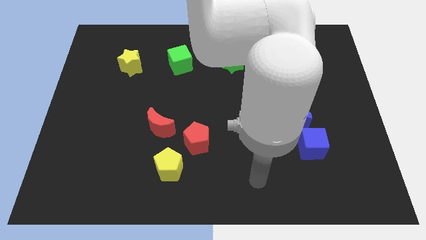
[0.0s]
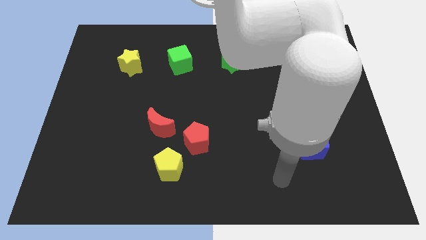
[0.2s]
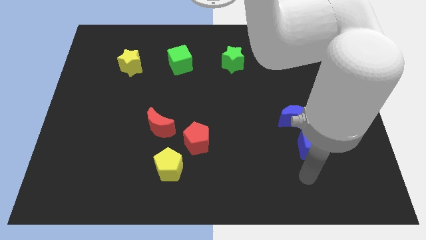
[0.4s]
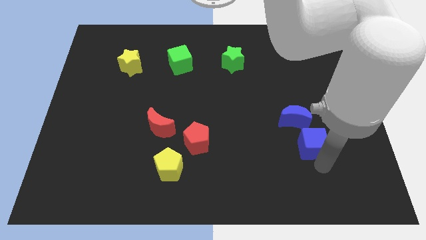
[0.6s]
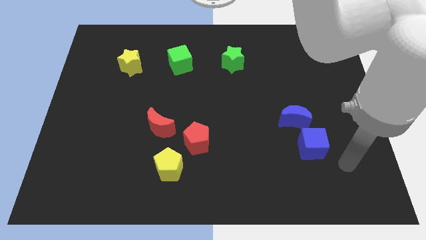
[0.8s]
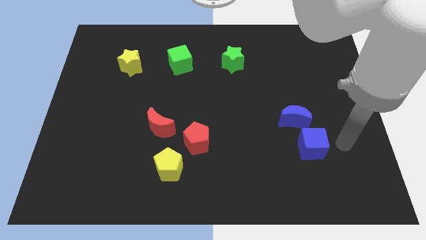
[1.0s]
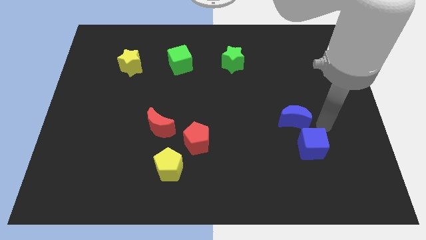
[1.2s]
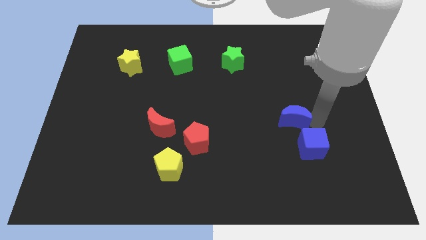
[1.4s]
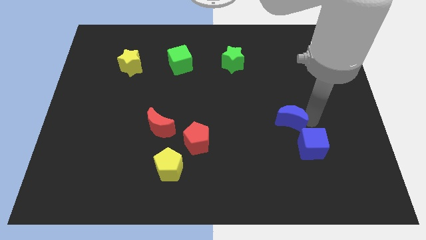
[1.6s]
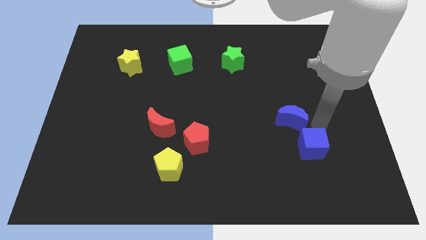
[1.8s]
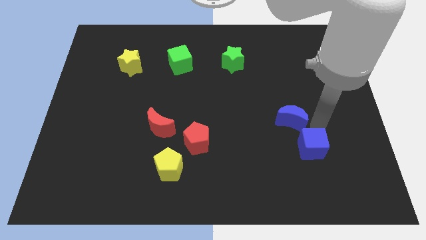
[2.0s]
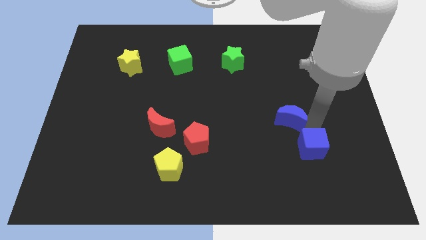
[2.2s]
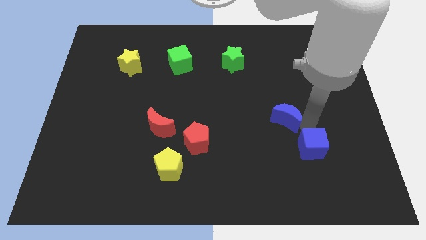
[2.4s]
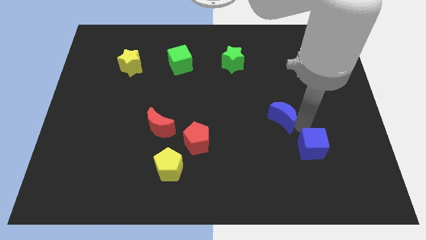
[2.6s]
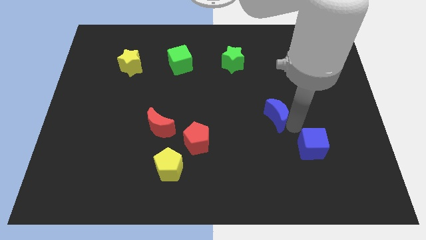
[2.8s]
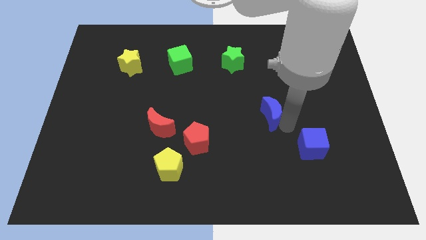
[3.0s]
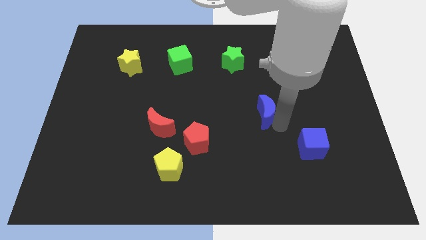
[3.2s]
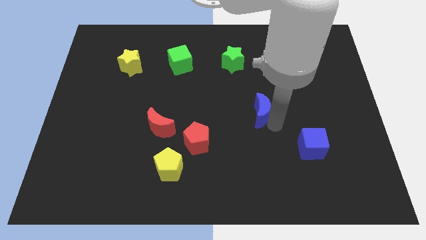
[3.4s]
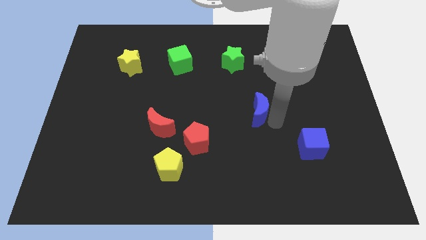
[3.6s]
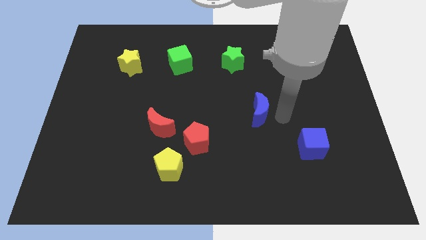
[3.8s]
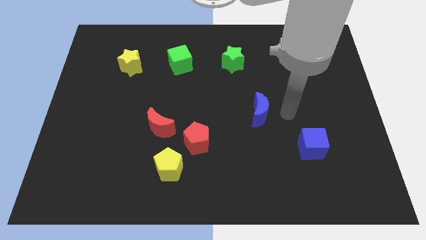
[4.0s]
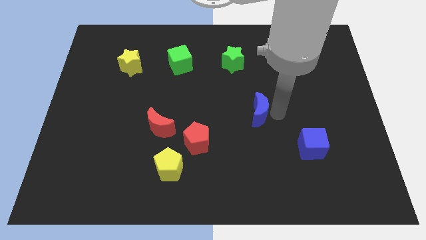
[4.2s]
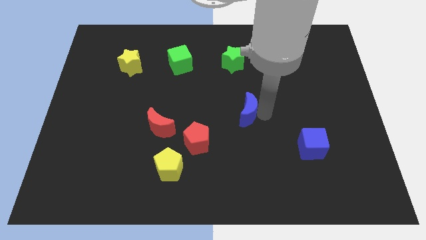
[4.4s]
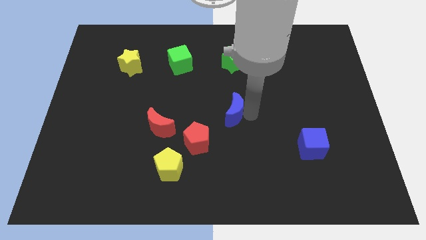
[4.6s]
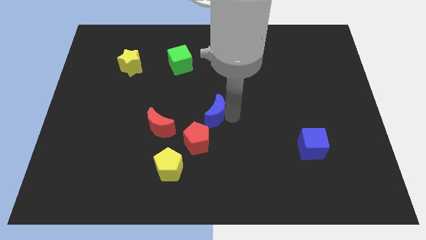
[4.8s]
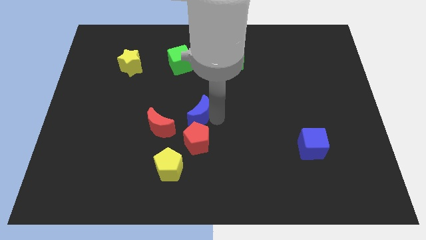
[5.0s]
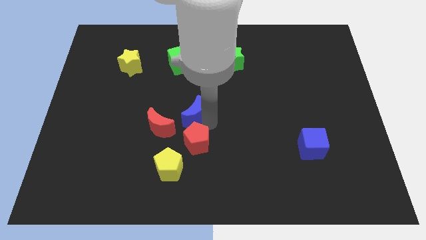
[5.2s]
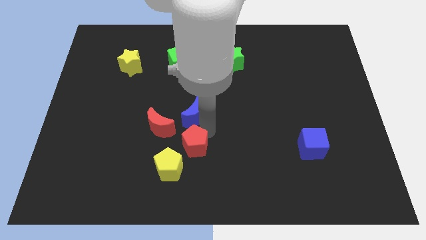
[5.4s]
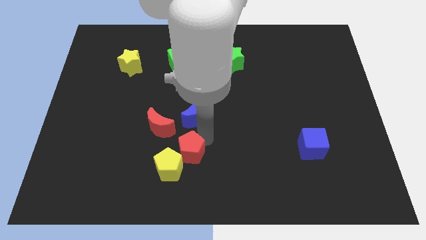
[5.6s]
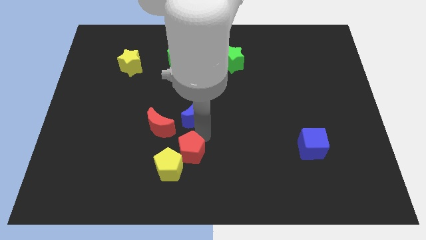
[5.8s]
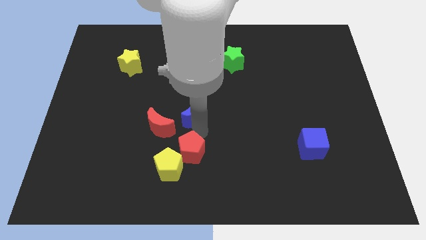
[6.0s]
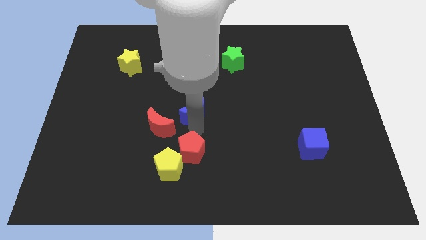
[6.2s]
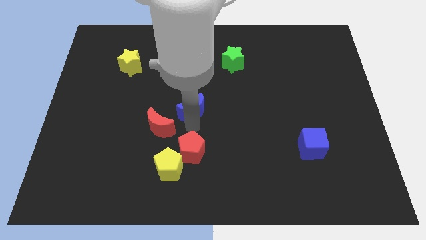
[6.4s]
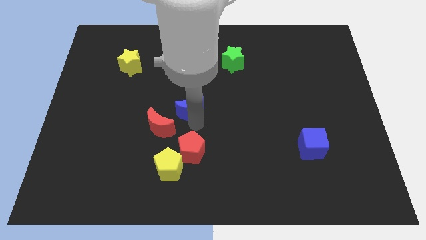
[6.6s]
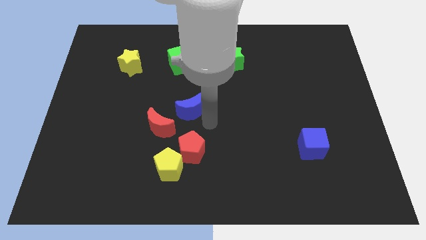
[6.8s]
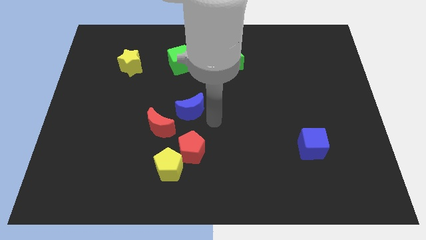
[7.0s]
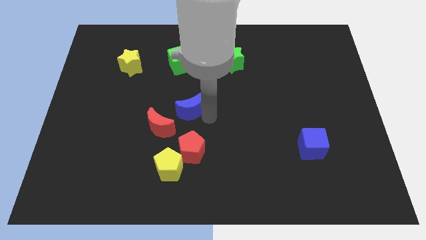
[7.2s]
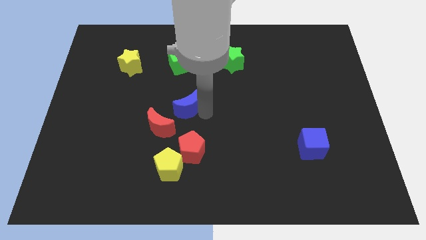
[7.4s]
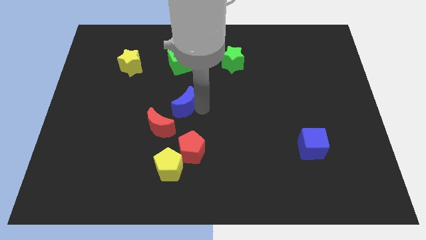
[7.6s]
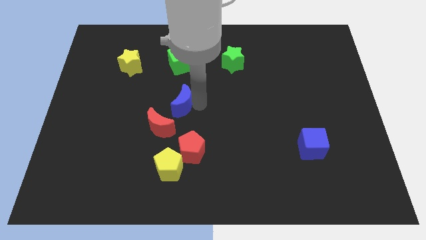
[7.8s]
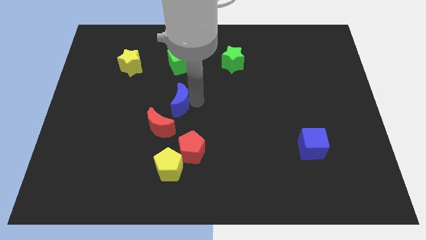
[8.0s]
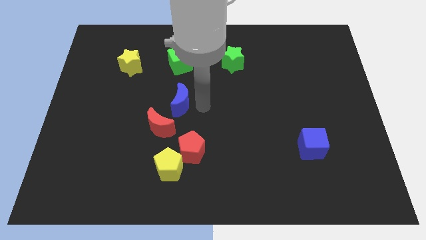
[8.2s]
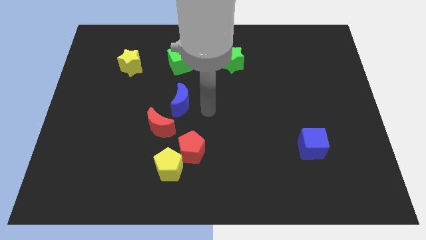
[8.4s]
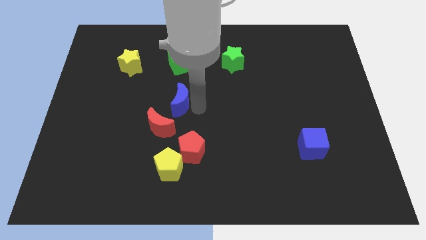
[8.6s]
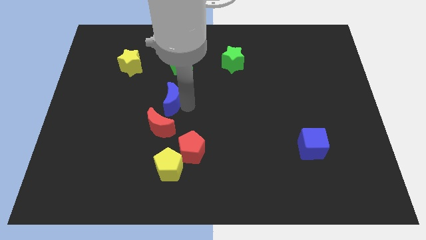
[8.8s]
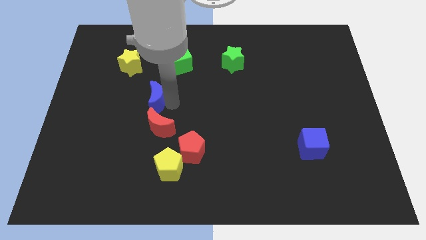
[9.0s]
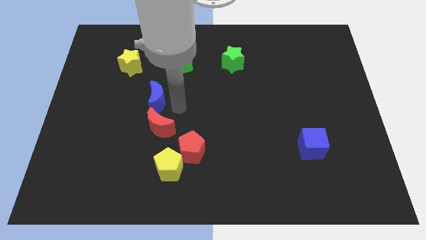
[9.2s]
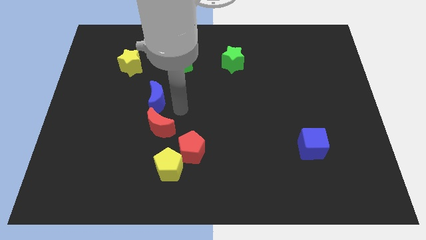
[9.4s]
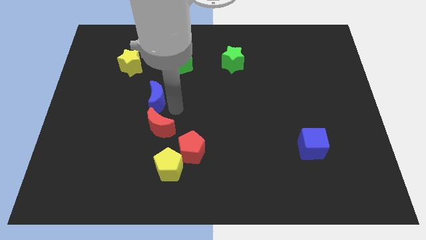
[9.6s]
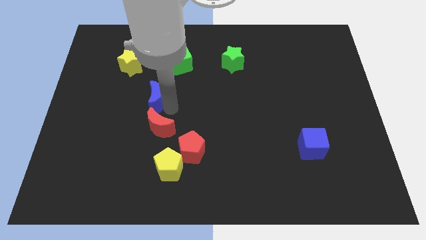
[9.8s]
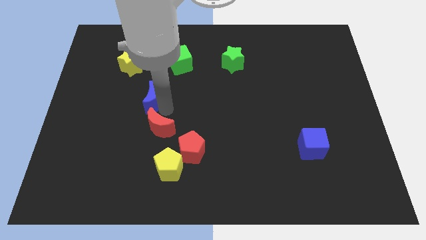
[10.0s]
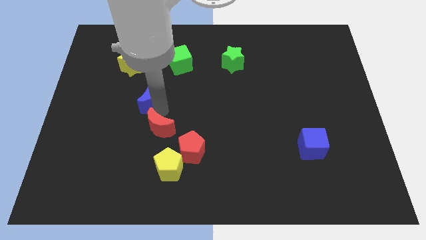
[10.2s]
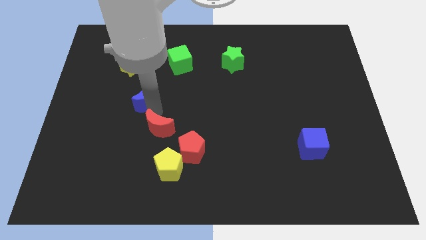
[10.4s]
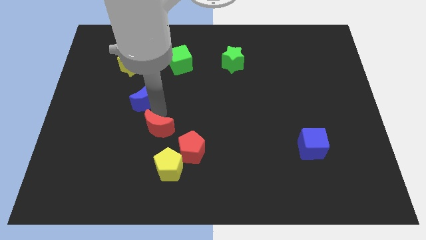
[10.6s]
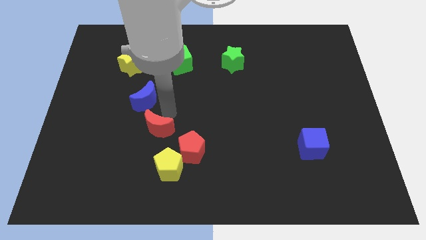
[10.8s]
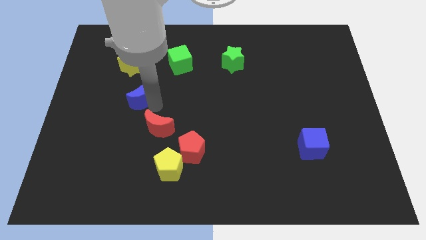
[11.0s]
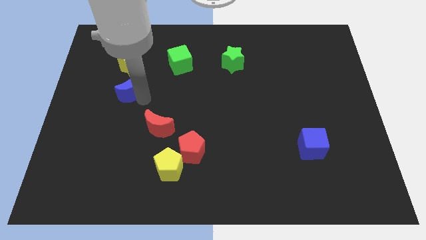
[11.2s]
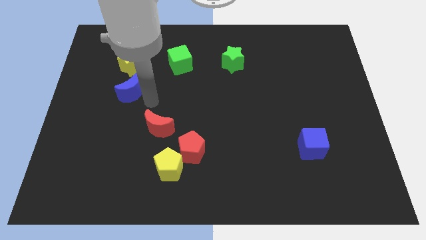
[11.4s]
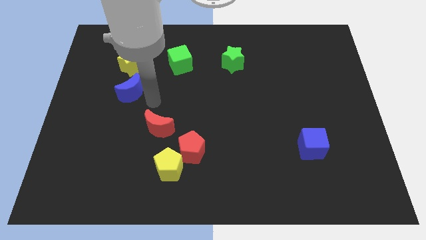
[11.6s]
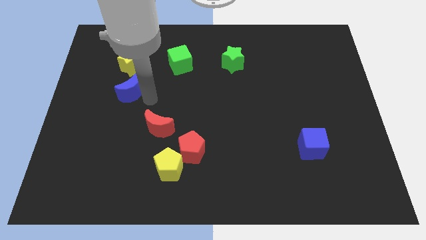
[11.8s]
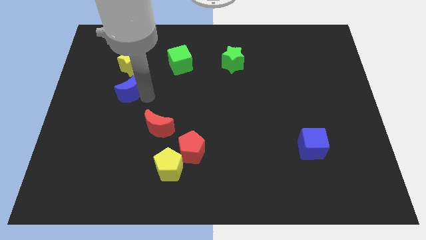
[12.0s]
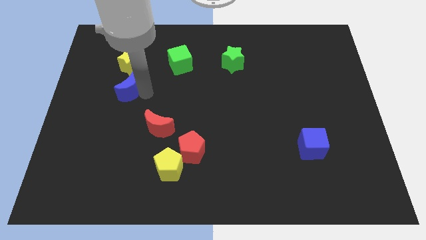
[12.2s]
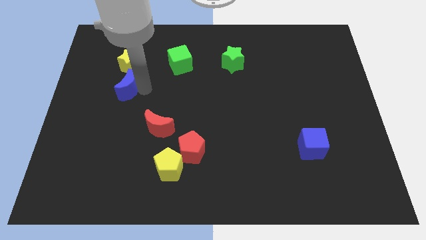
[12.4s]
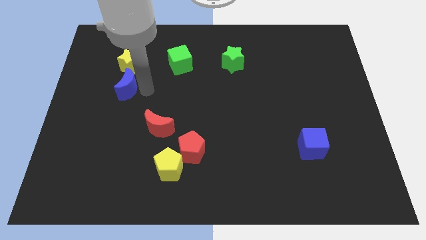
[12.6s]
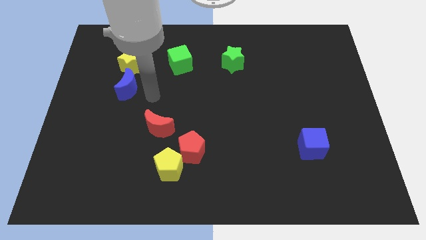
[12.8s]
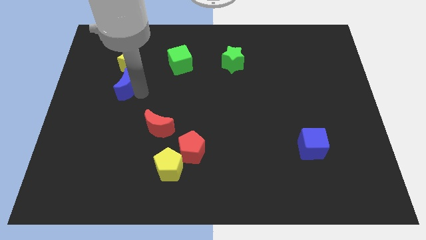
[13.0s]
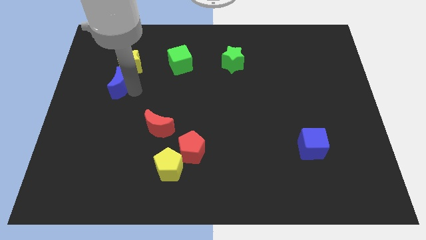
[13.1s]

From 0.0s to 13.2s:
put the blue moon diagonally down and to the left of the yellow star
